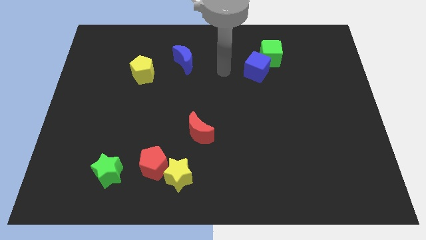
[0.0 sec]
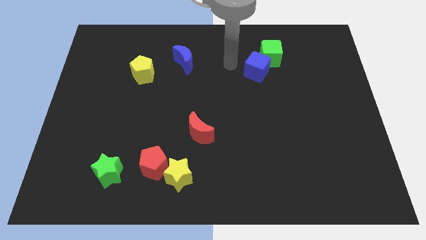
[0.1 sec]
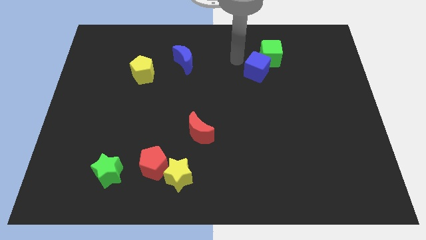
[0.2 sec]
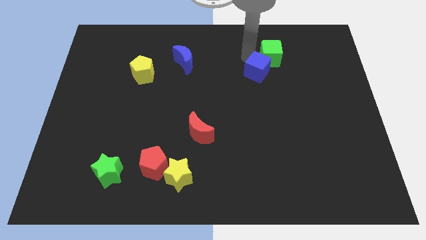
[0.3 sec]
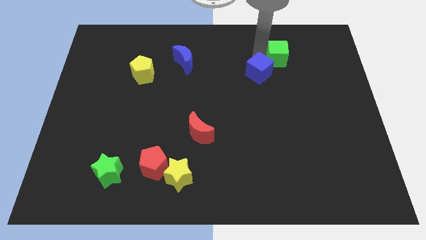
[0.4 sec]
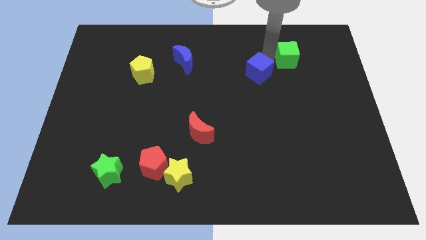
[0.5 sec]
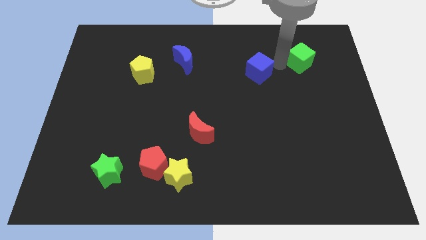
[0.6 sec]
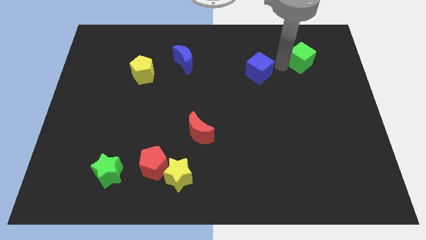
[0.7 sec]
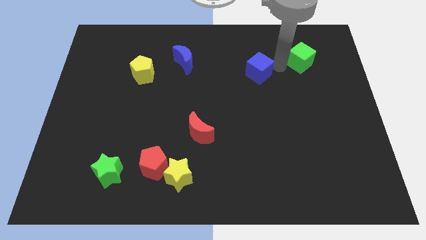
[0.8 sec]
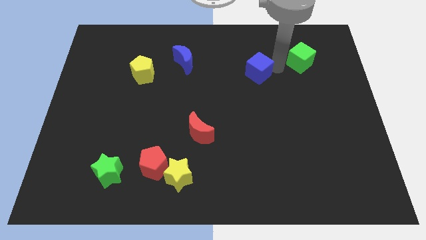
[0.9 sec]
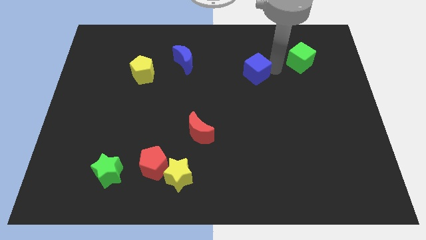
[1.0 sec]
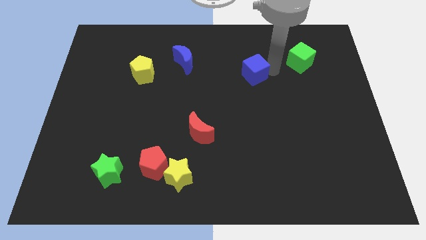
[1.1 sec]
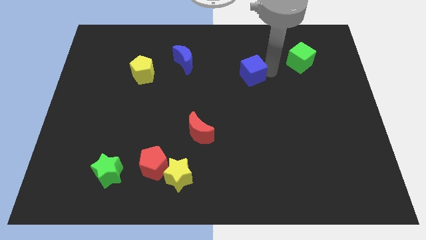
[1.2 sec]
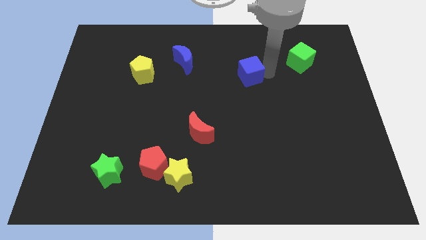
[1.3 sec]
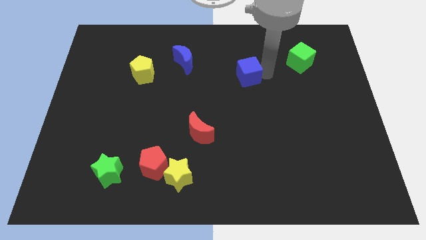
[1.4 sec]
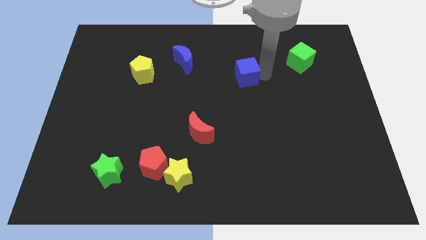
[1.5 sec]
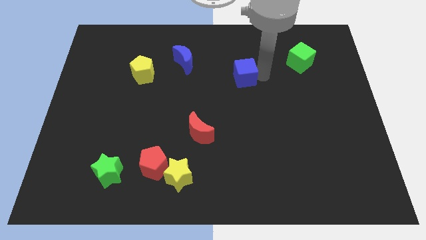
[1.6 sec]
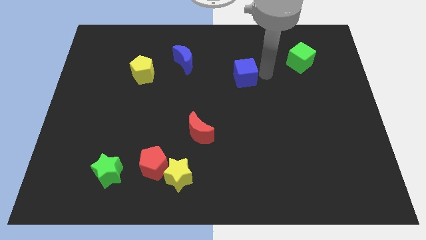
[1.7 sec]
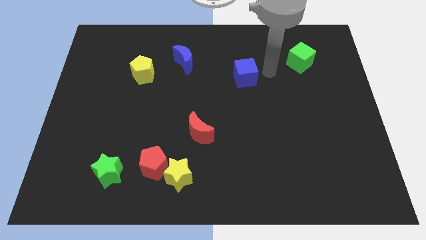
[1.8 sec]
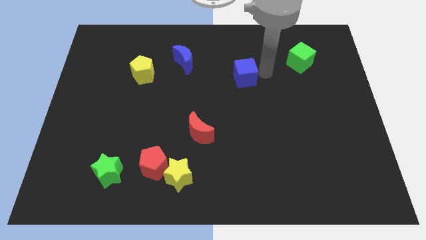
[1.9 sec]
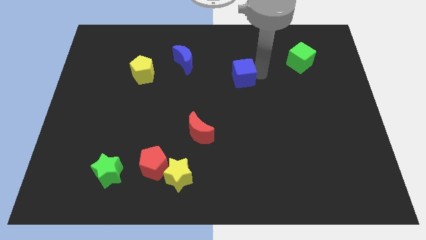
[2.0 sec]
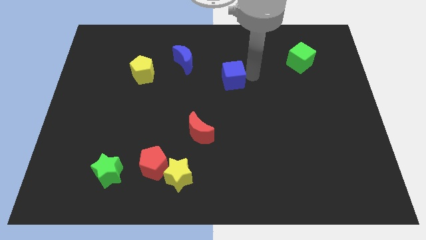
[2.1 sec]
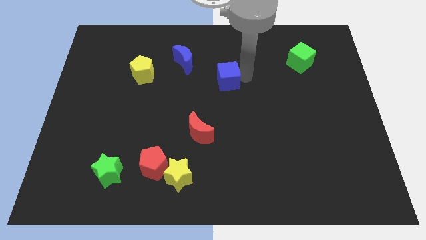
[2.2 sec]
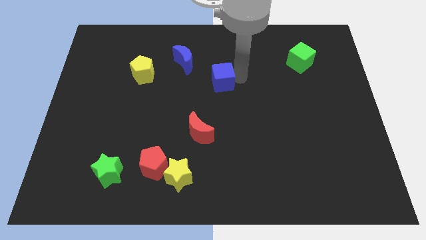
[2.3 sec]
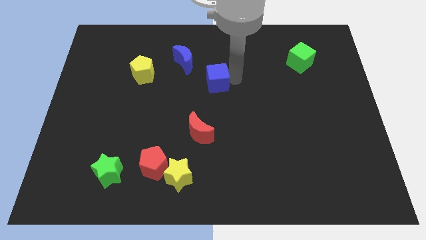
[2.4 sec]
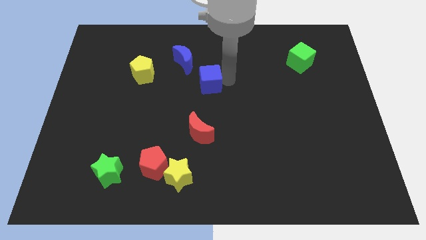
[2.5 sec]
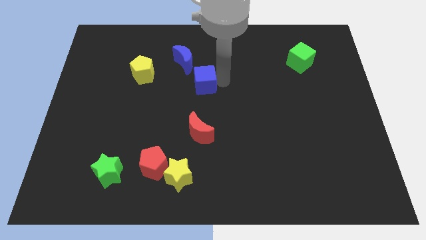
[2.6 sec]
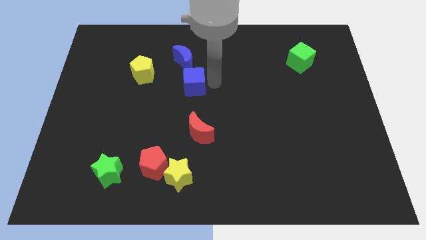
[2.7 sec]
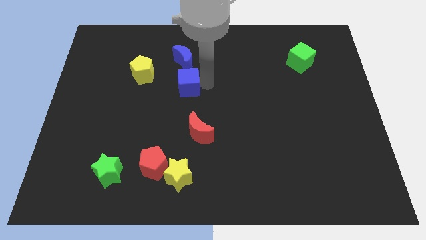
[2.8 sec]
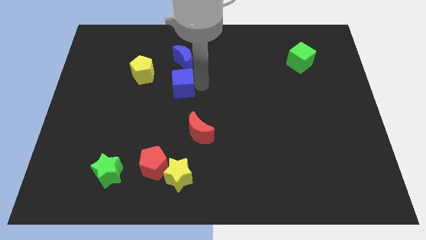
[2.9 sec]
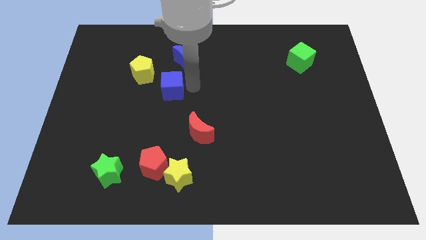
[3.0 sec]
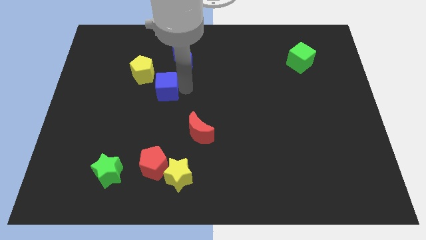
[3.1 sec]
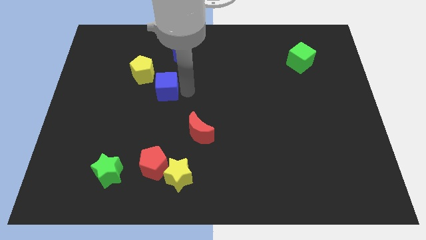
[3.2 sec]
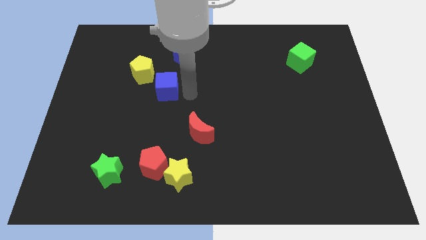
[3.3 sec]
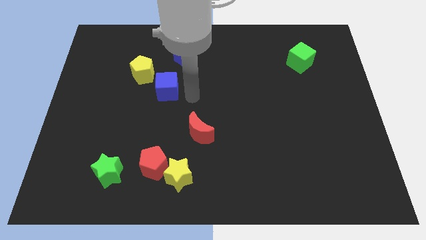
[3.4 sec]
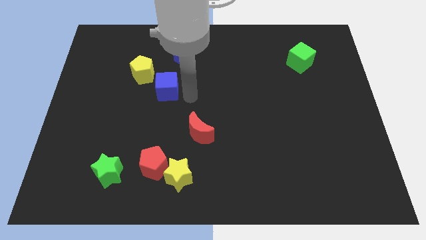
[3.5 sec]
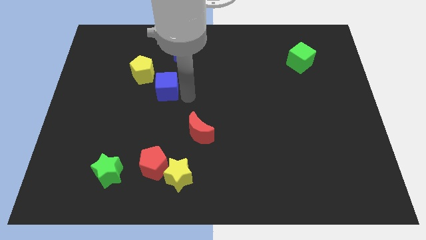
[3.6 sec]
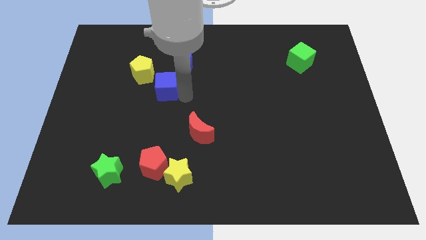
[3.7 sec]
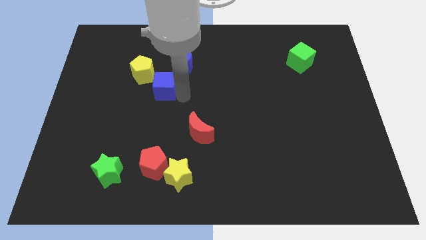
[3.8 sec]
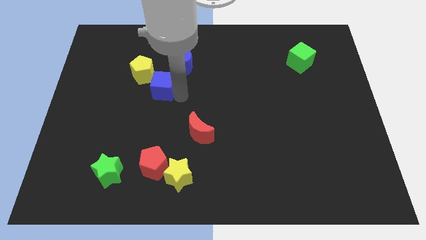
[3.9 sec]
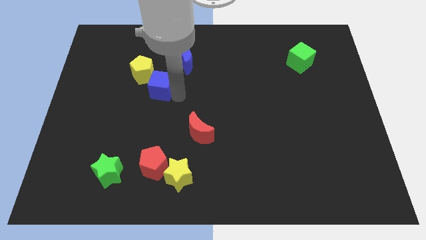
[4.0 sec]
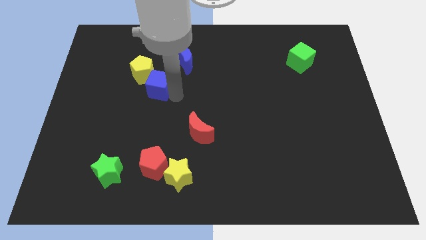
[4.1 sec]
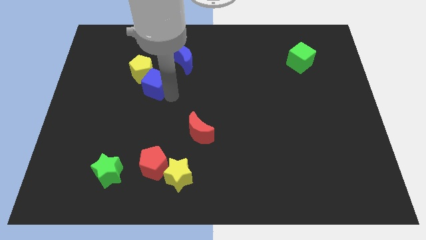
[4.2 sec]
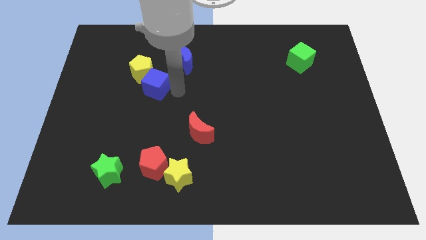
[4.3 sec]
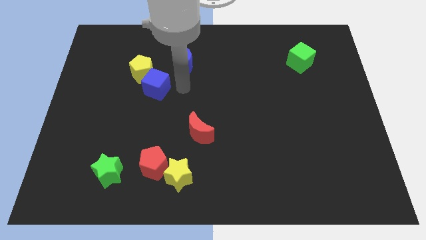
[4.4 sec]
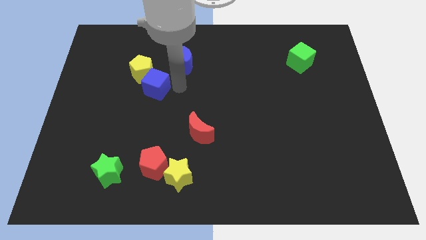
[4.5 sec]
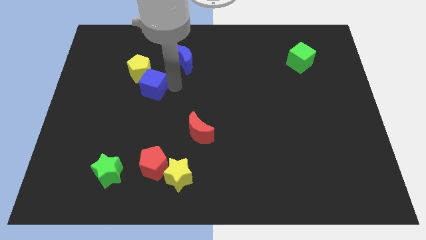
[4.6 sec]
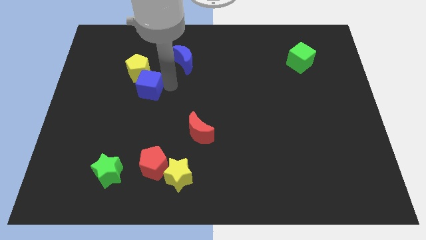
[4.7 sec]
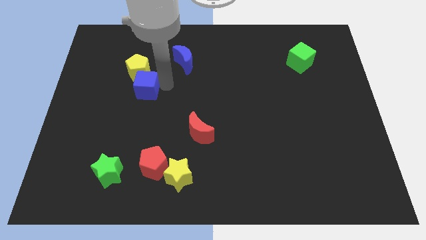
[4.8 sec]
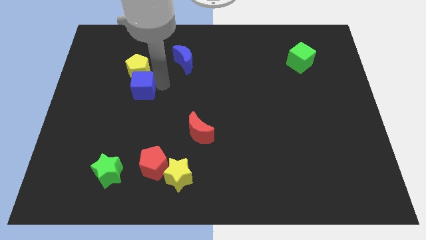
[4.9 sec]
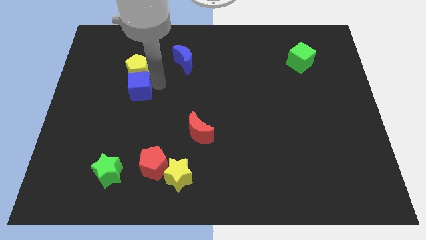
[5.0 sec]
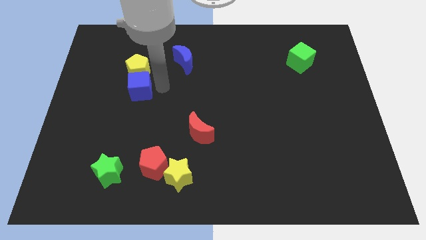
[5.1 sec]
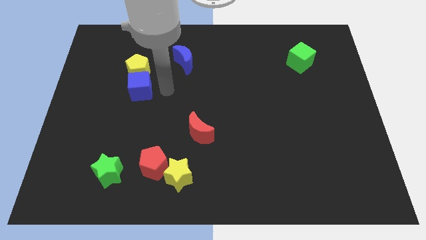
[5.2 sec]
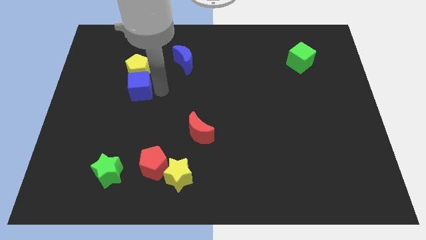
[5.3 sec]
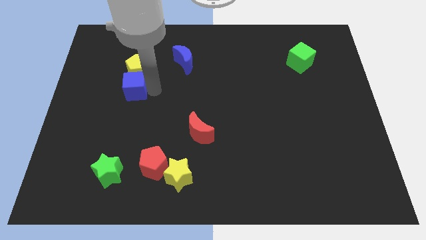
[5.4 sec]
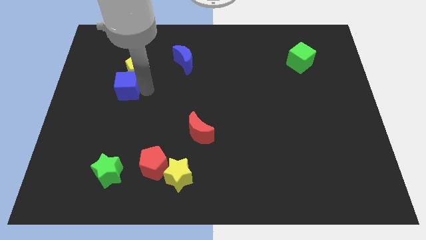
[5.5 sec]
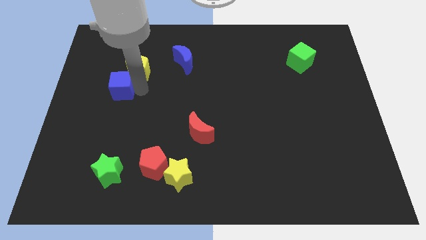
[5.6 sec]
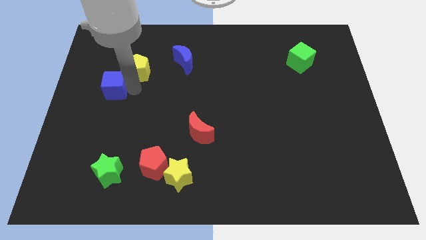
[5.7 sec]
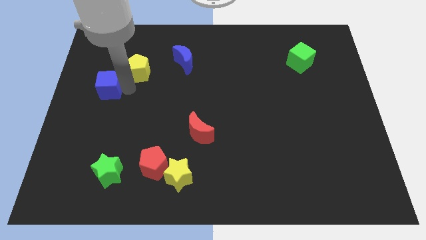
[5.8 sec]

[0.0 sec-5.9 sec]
move the blue cube to the left side of the board
